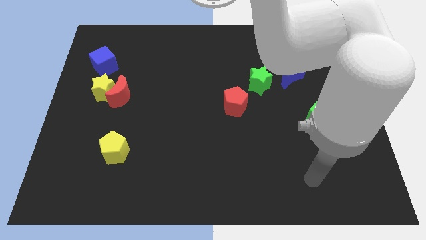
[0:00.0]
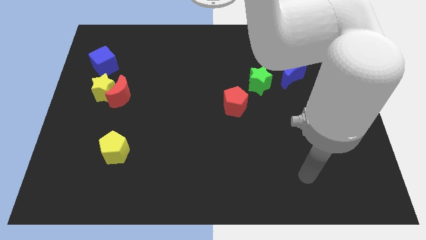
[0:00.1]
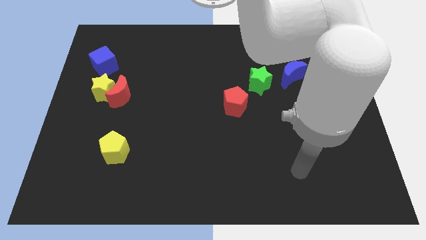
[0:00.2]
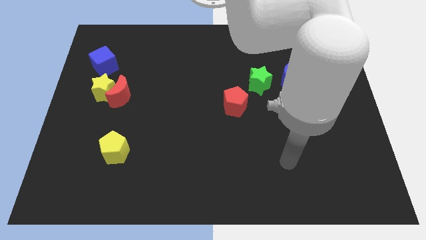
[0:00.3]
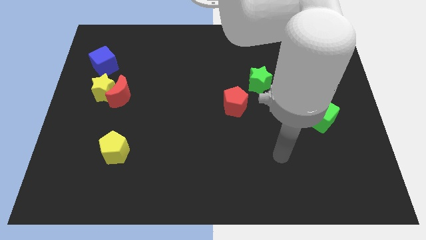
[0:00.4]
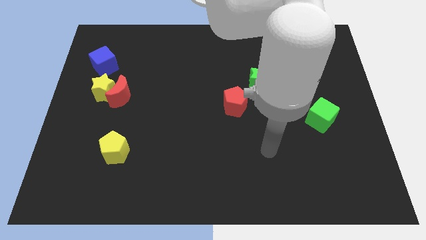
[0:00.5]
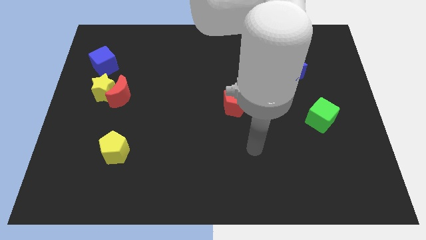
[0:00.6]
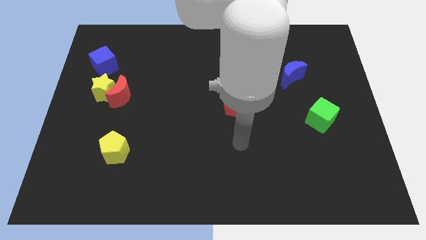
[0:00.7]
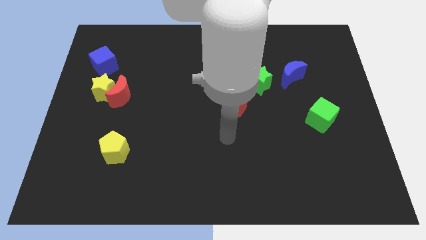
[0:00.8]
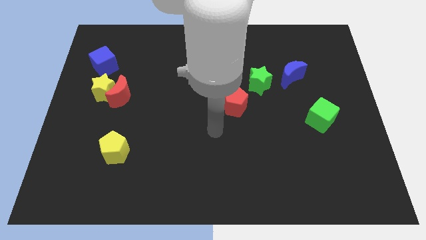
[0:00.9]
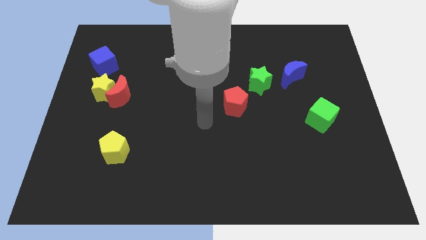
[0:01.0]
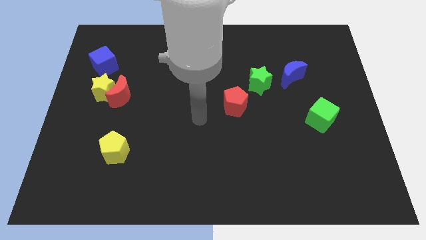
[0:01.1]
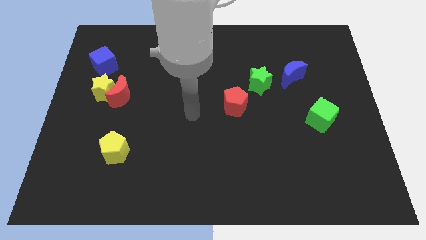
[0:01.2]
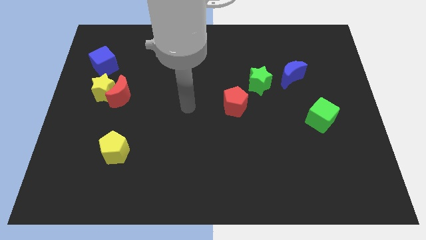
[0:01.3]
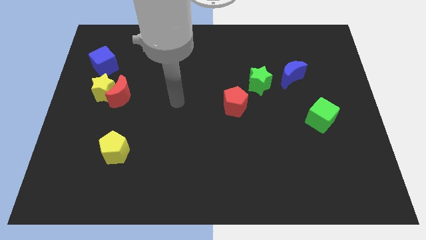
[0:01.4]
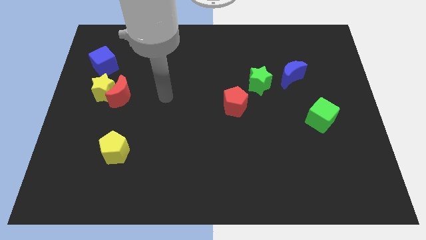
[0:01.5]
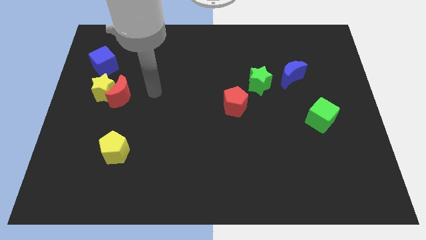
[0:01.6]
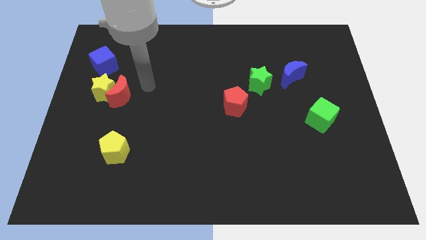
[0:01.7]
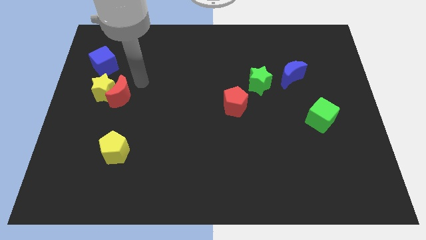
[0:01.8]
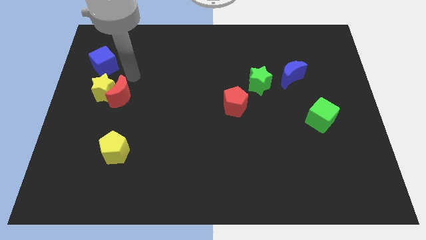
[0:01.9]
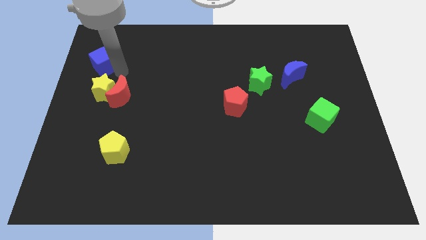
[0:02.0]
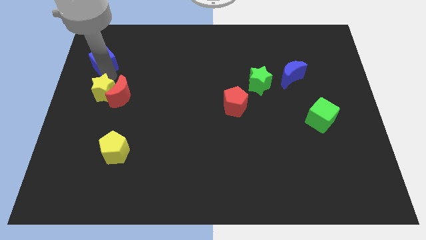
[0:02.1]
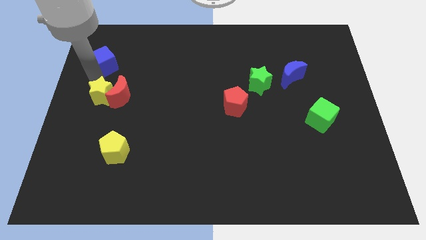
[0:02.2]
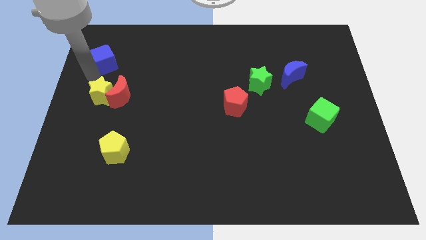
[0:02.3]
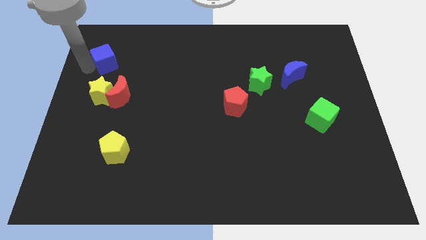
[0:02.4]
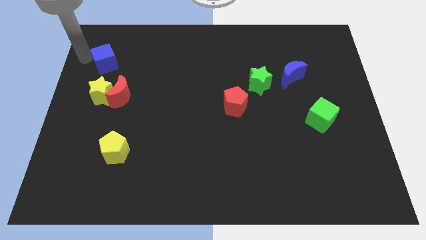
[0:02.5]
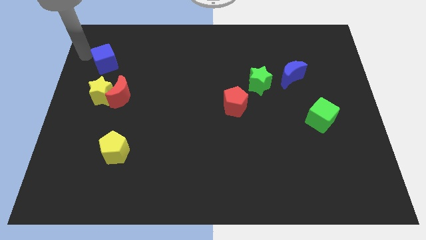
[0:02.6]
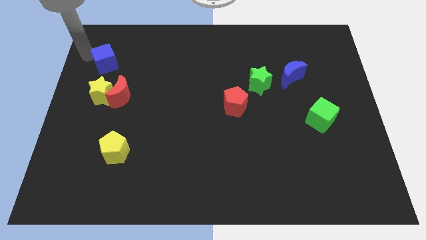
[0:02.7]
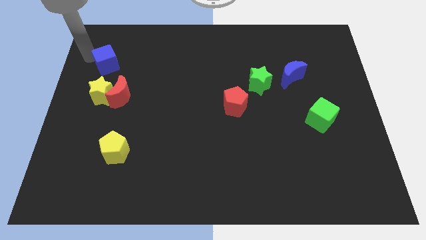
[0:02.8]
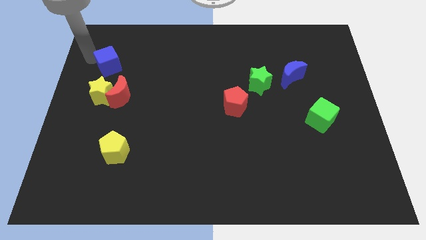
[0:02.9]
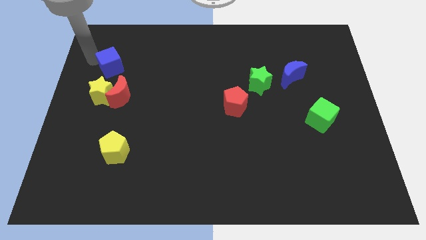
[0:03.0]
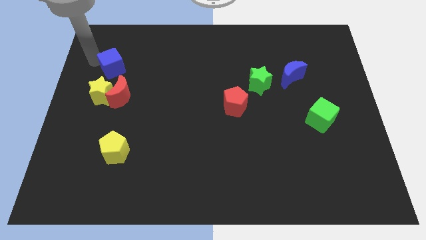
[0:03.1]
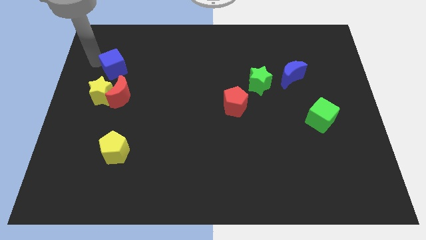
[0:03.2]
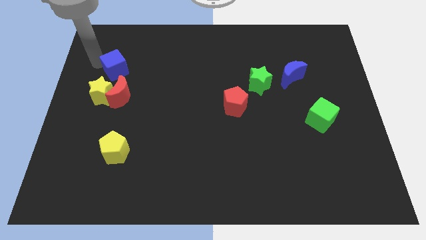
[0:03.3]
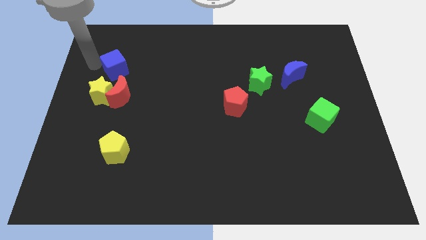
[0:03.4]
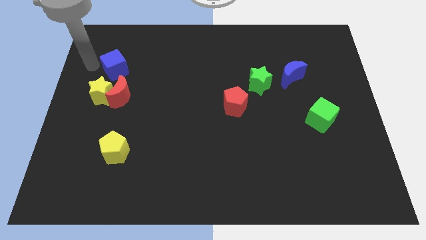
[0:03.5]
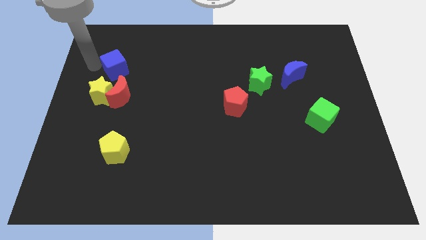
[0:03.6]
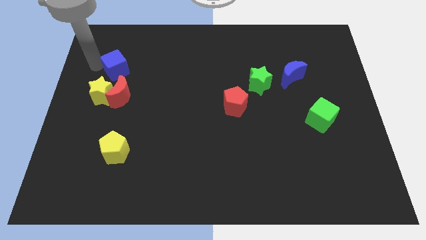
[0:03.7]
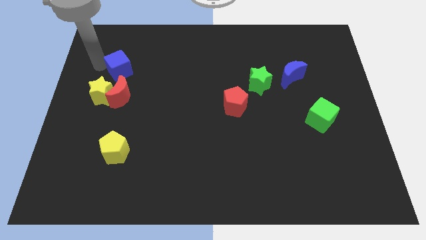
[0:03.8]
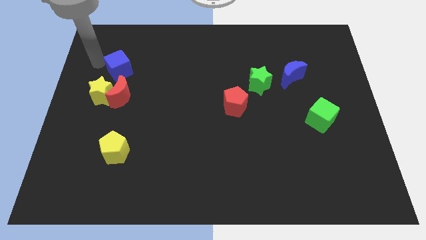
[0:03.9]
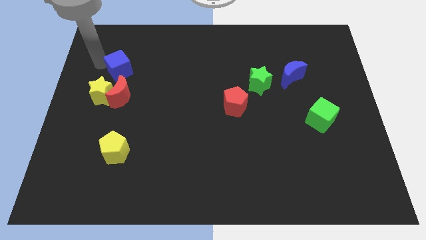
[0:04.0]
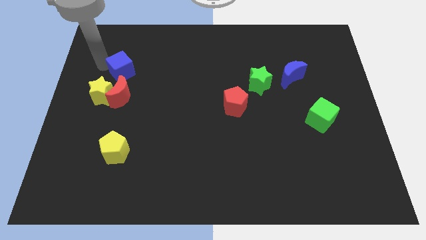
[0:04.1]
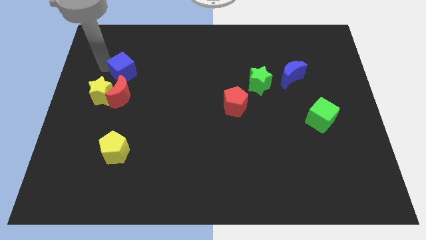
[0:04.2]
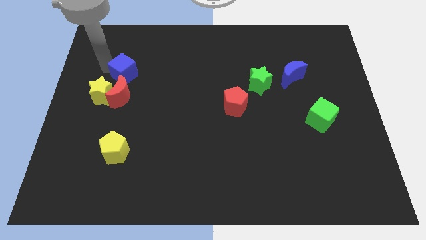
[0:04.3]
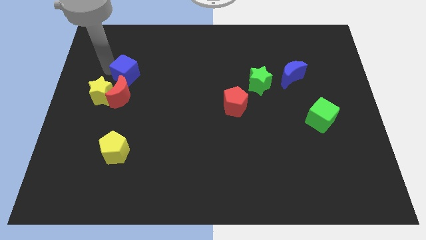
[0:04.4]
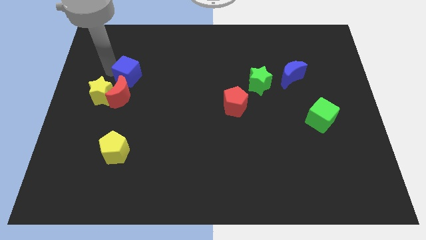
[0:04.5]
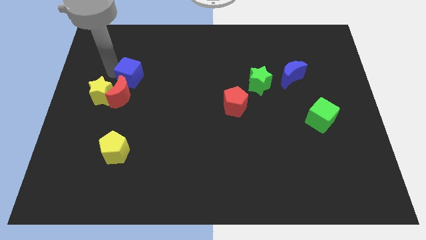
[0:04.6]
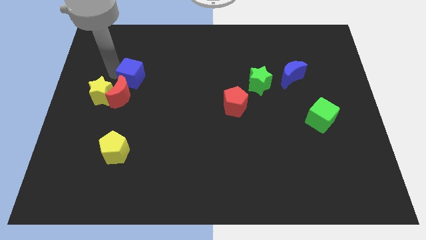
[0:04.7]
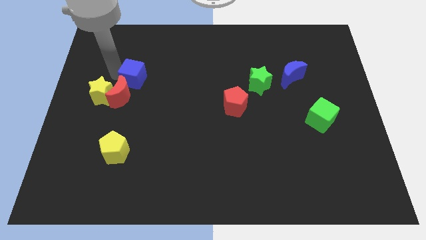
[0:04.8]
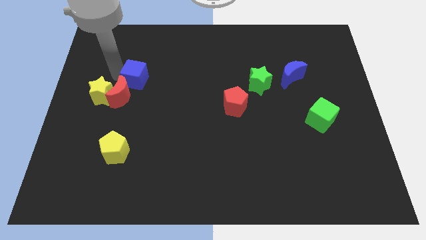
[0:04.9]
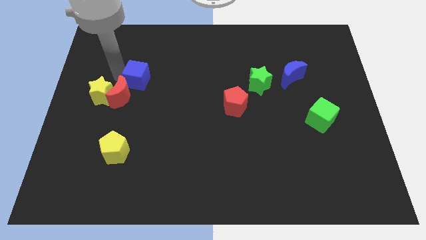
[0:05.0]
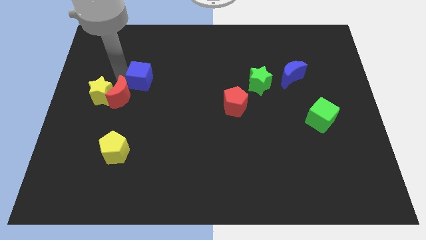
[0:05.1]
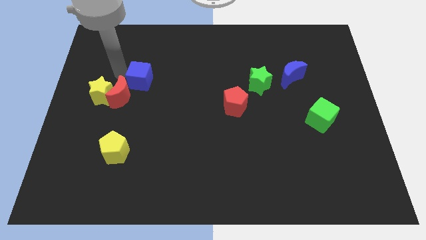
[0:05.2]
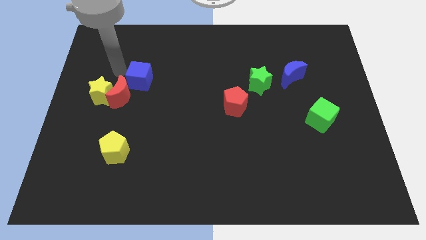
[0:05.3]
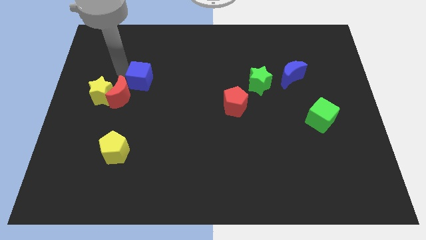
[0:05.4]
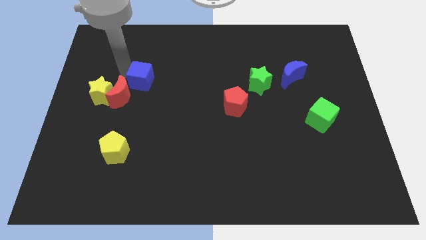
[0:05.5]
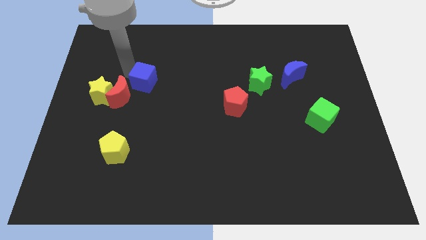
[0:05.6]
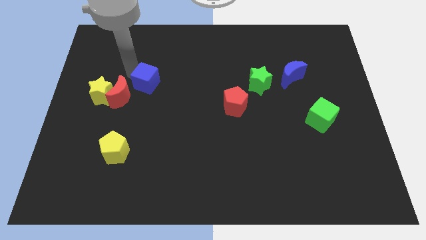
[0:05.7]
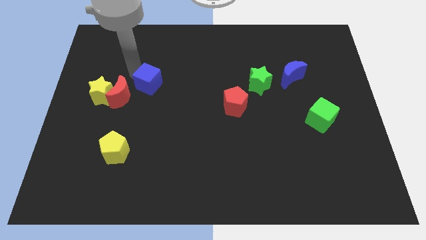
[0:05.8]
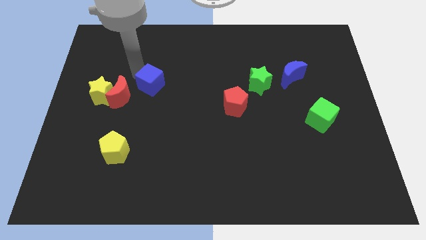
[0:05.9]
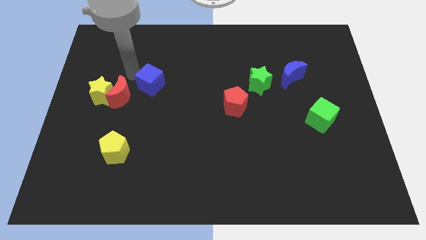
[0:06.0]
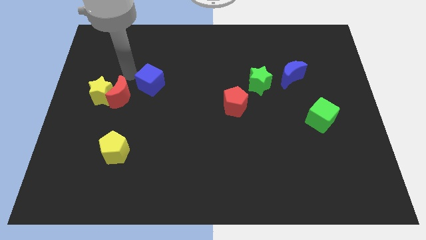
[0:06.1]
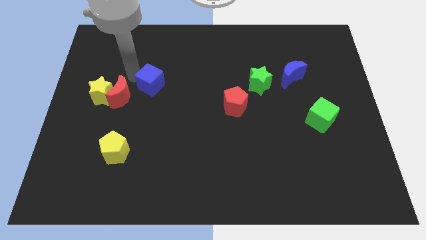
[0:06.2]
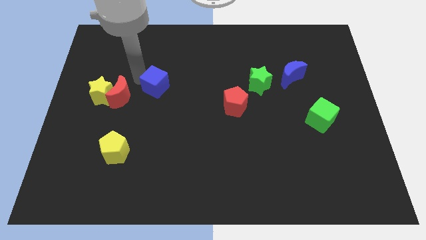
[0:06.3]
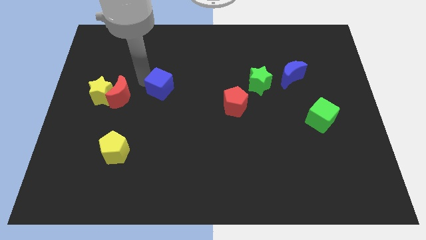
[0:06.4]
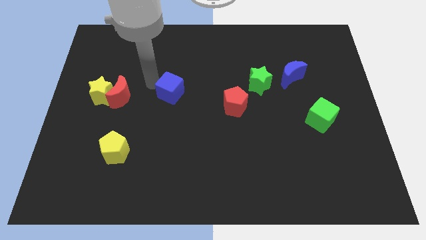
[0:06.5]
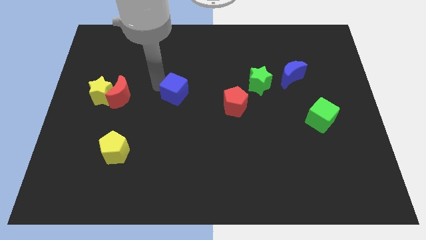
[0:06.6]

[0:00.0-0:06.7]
move the blue cube just left of the red pentagon
